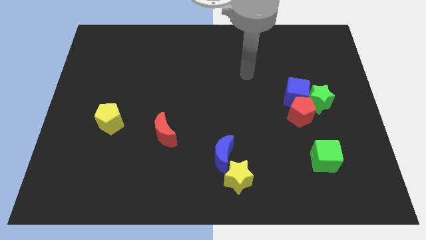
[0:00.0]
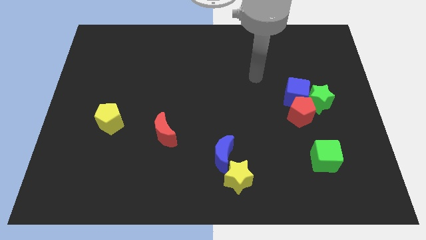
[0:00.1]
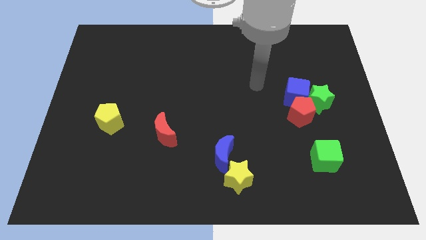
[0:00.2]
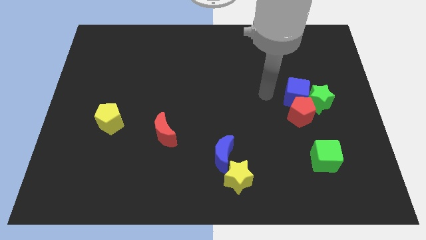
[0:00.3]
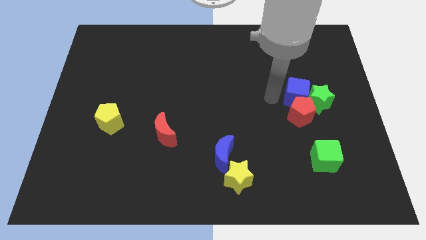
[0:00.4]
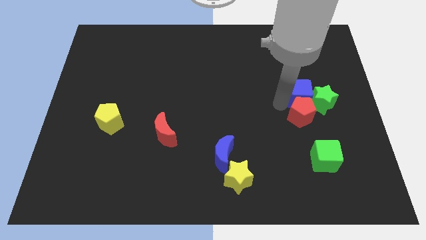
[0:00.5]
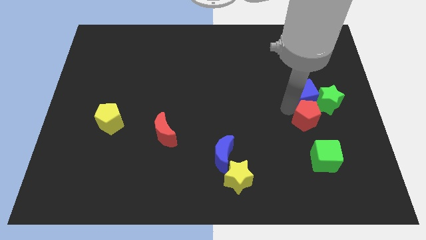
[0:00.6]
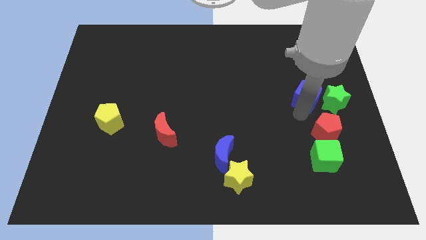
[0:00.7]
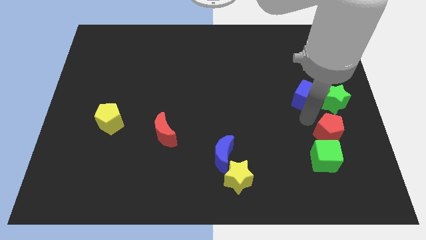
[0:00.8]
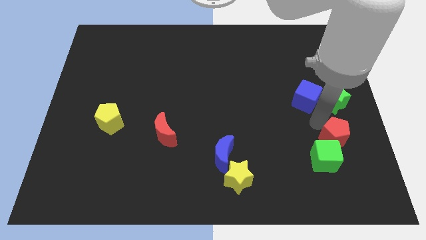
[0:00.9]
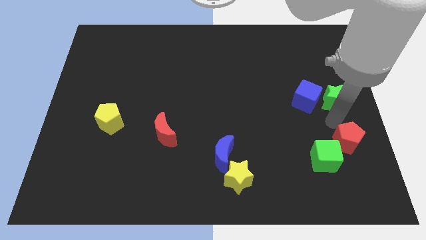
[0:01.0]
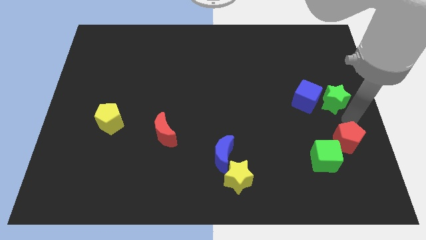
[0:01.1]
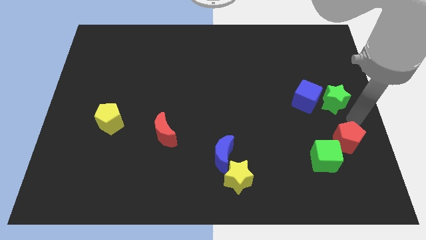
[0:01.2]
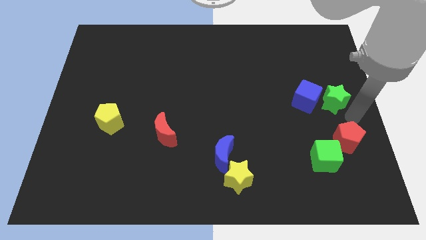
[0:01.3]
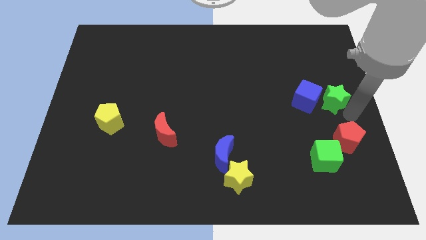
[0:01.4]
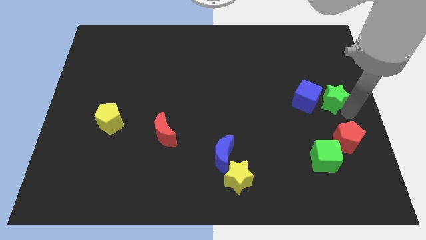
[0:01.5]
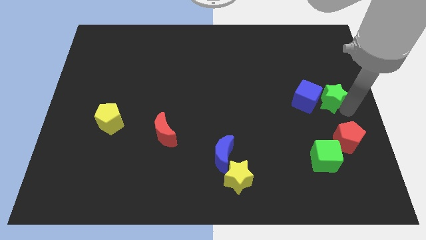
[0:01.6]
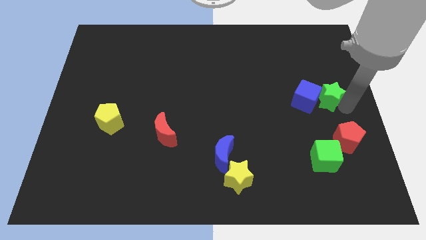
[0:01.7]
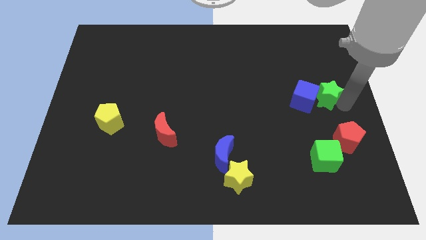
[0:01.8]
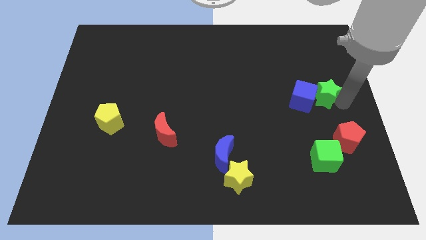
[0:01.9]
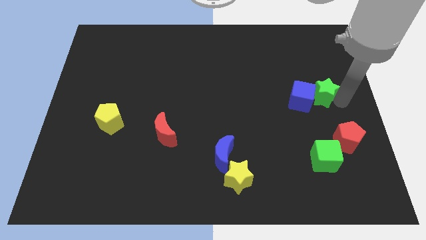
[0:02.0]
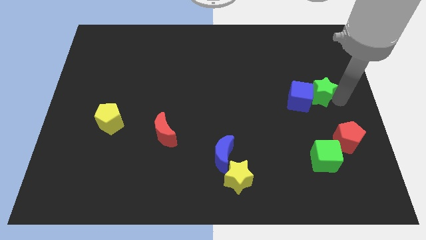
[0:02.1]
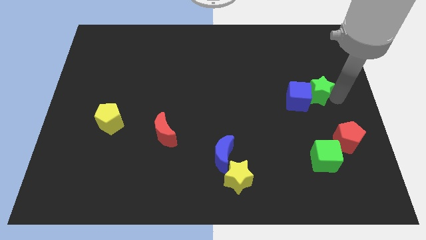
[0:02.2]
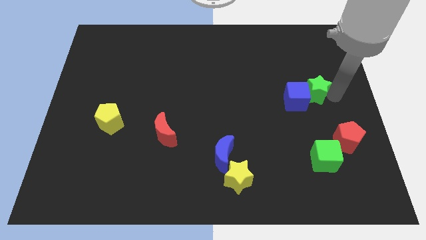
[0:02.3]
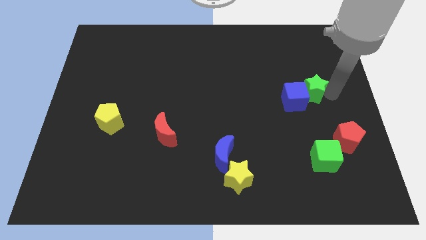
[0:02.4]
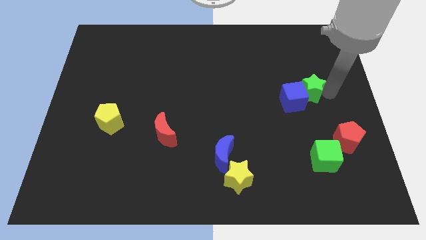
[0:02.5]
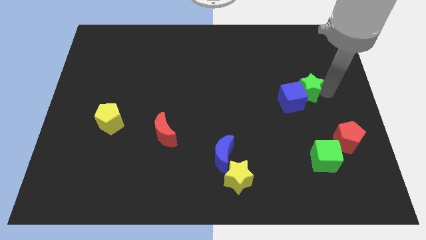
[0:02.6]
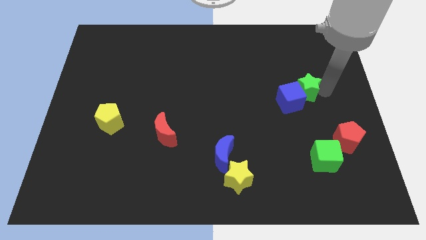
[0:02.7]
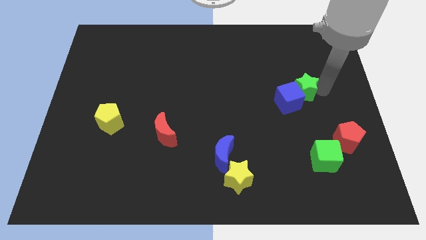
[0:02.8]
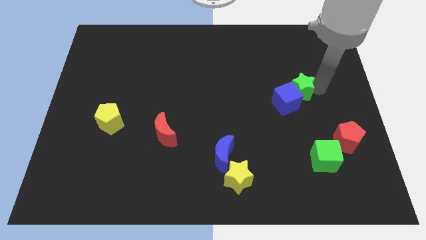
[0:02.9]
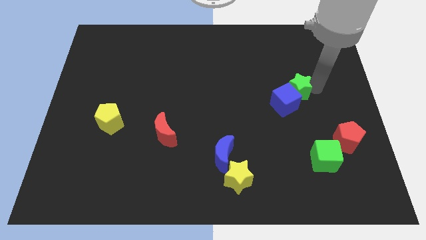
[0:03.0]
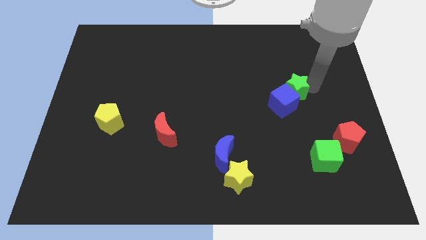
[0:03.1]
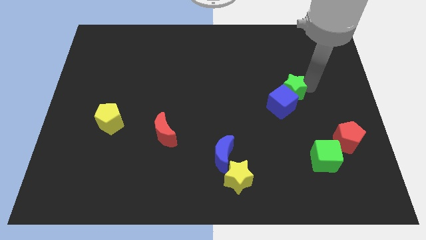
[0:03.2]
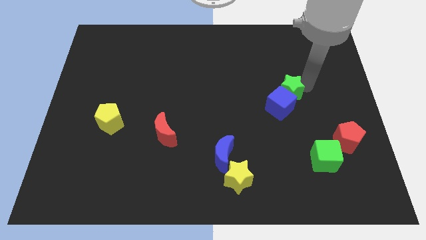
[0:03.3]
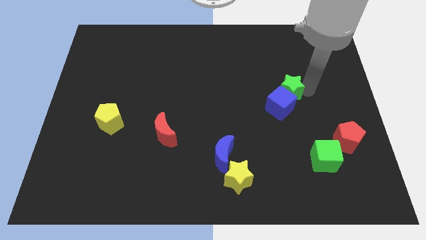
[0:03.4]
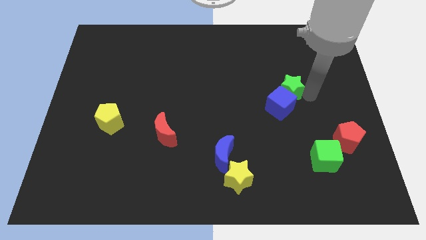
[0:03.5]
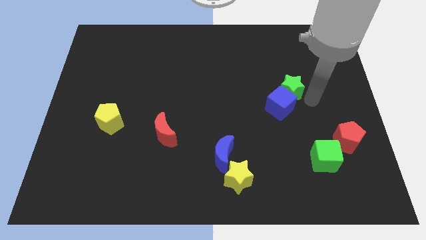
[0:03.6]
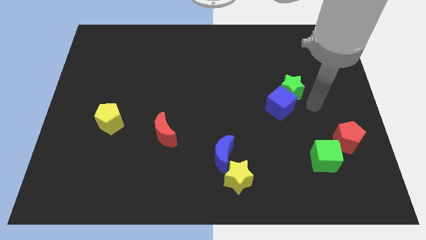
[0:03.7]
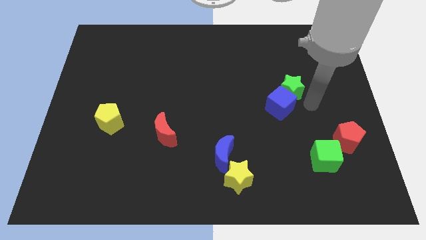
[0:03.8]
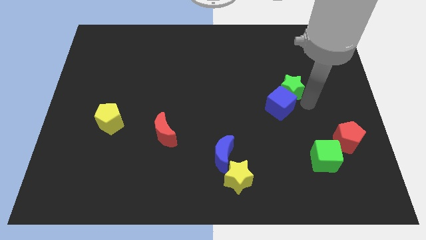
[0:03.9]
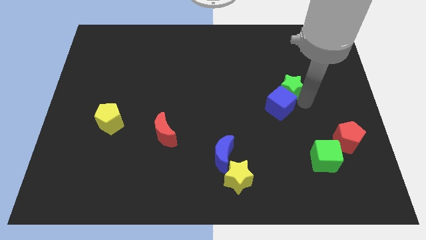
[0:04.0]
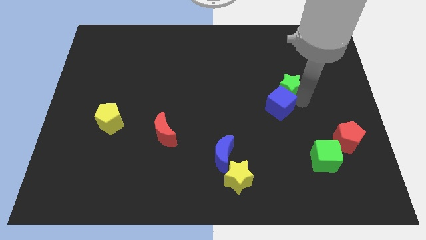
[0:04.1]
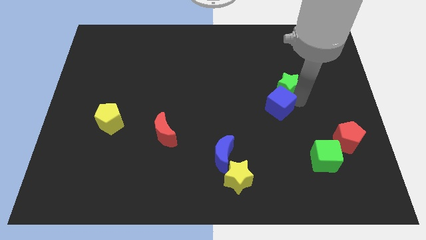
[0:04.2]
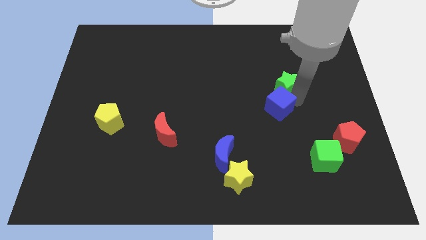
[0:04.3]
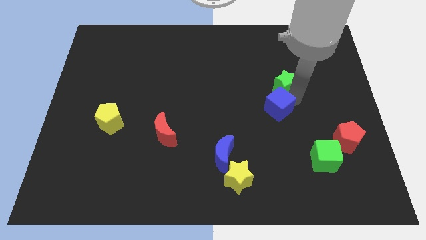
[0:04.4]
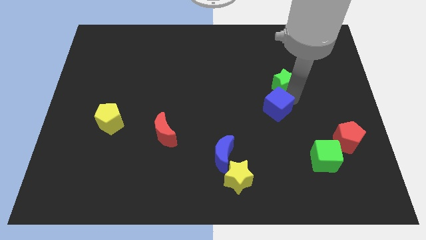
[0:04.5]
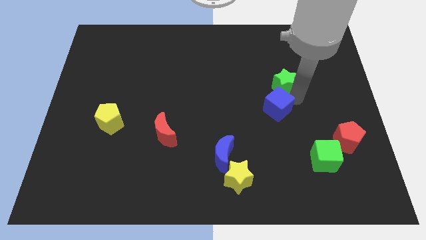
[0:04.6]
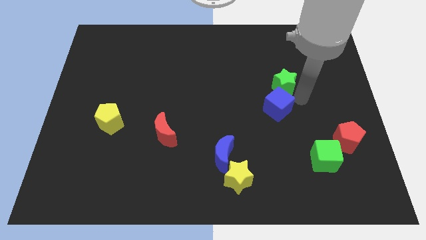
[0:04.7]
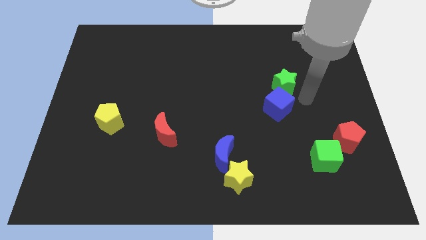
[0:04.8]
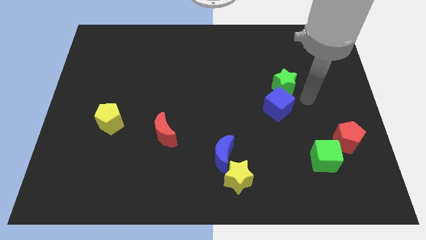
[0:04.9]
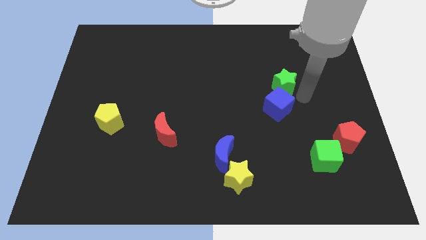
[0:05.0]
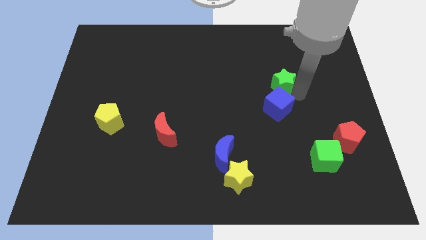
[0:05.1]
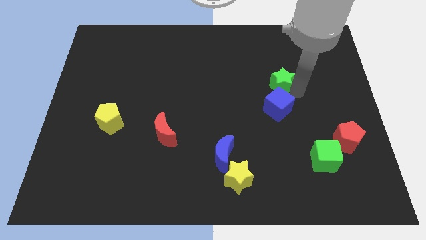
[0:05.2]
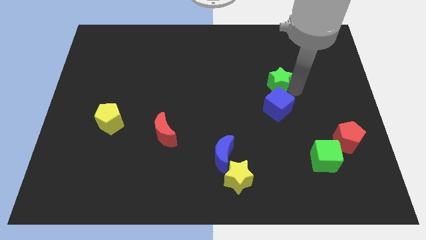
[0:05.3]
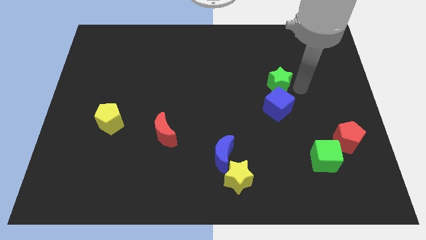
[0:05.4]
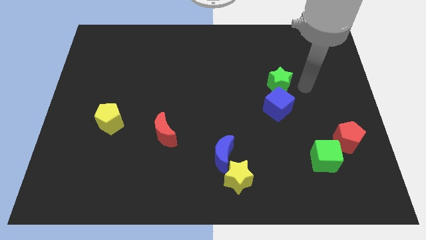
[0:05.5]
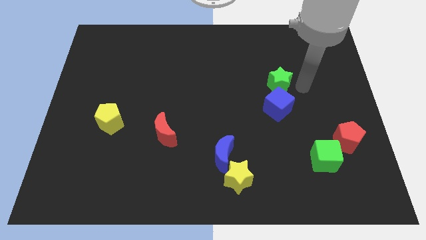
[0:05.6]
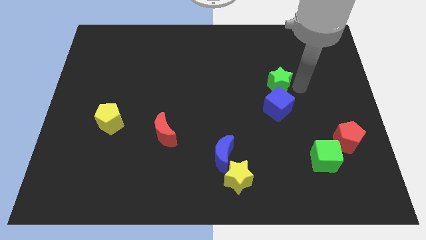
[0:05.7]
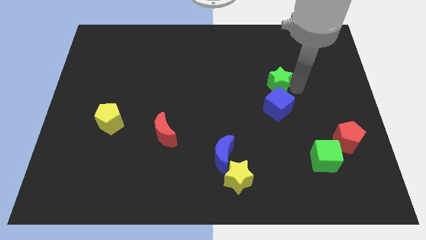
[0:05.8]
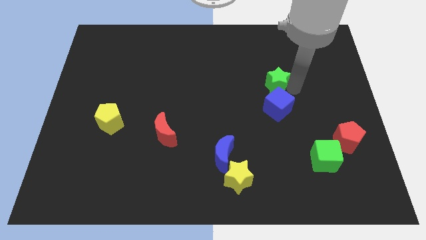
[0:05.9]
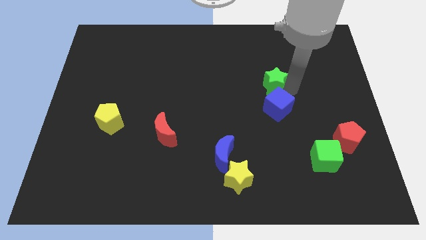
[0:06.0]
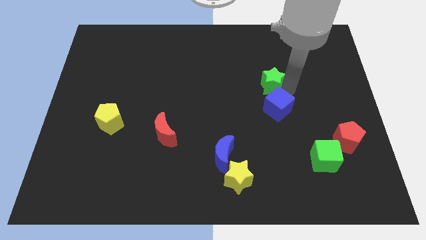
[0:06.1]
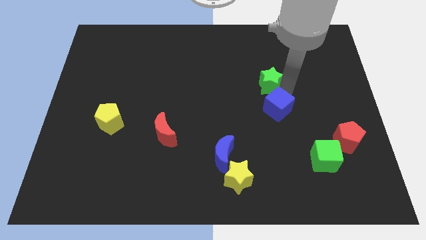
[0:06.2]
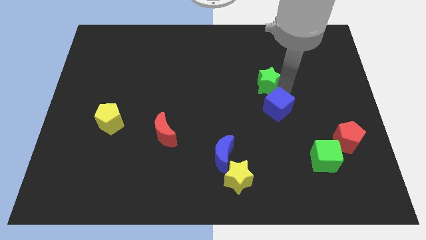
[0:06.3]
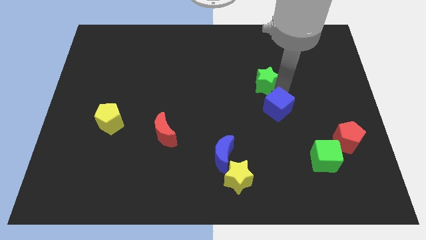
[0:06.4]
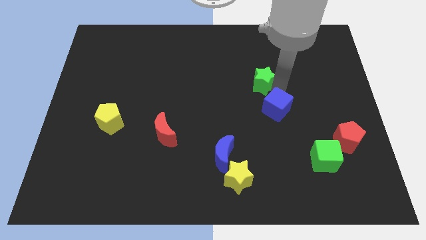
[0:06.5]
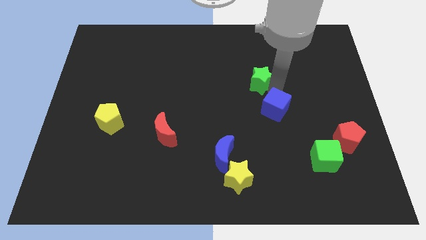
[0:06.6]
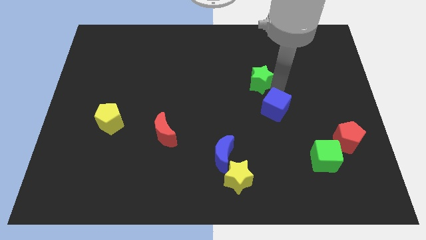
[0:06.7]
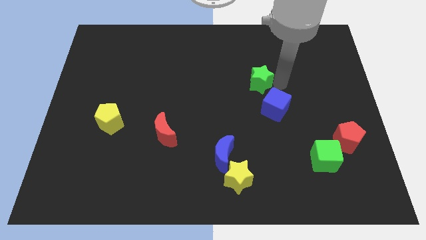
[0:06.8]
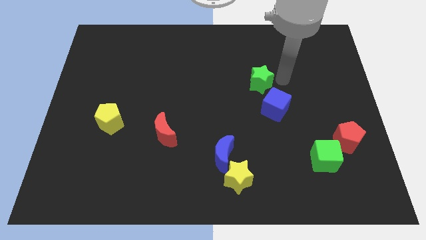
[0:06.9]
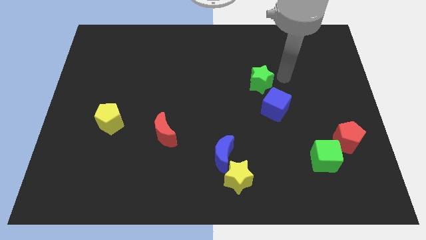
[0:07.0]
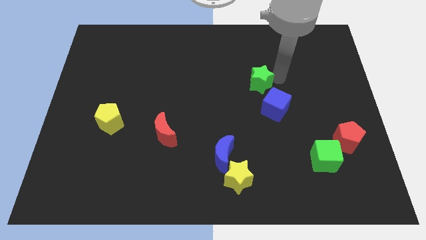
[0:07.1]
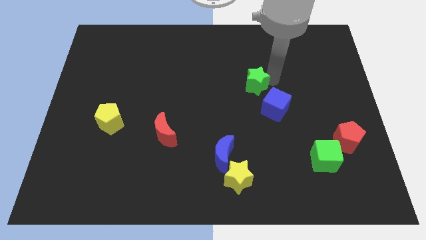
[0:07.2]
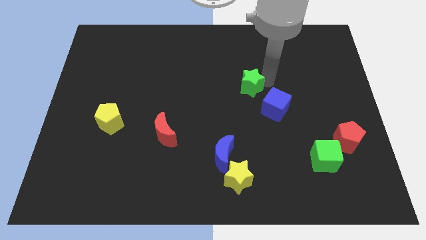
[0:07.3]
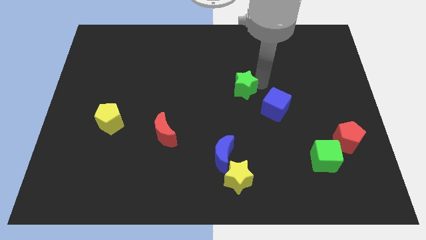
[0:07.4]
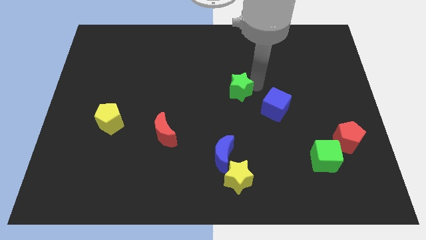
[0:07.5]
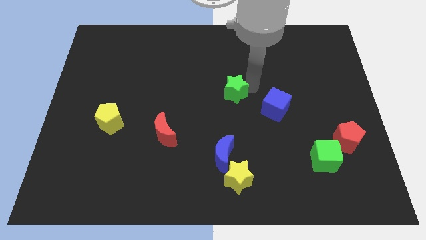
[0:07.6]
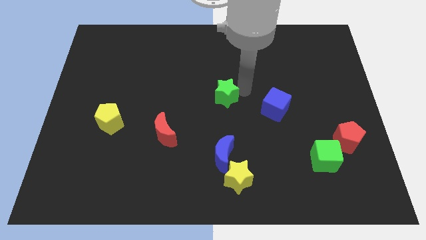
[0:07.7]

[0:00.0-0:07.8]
slide the green star left
